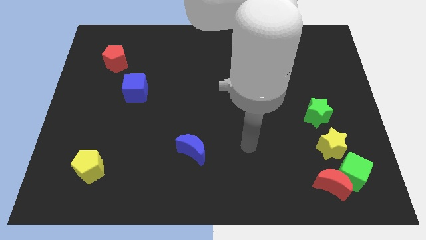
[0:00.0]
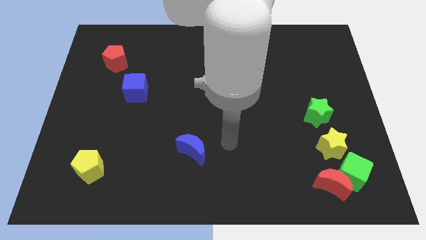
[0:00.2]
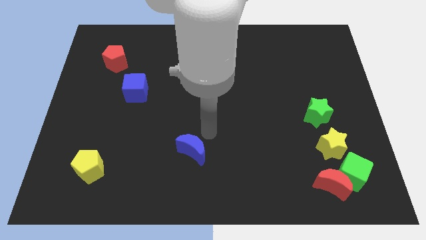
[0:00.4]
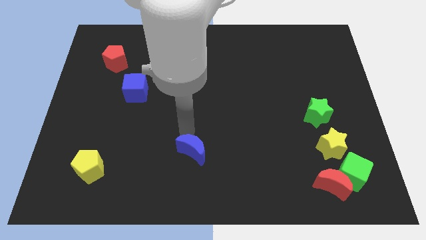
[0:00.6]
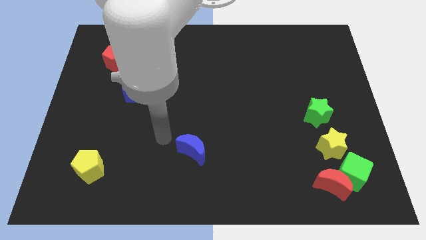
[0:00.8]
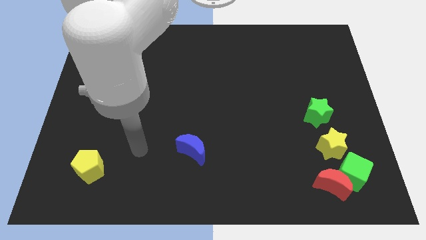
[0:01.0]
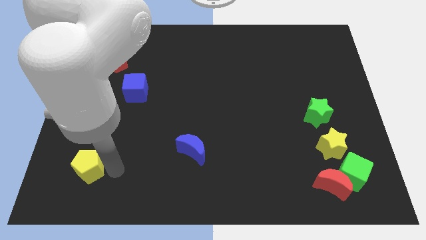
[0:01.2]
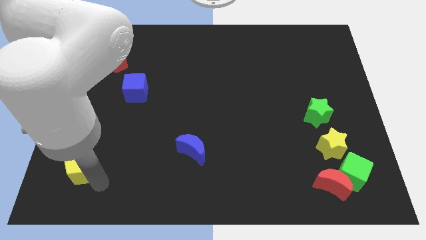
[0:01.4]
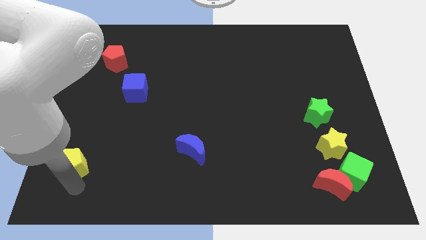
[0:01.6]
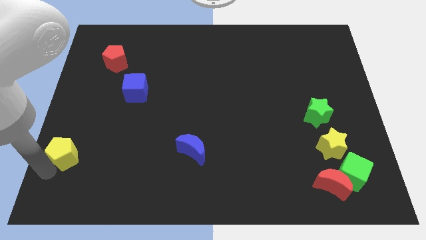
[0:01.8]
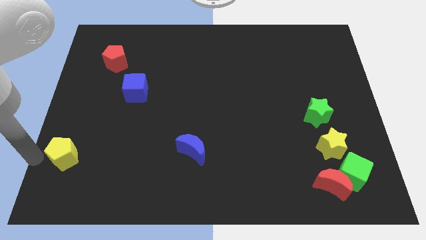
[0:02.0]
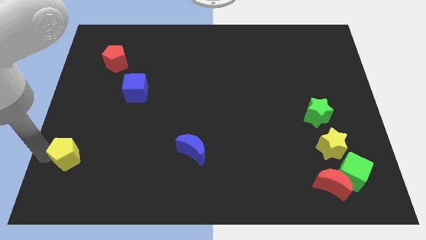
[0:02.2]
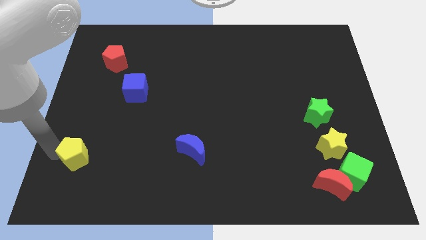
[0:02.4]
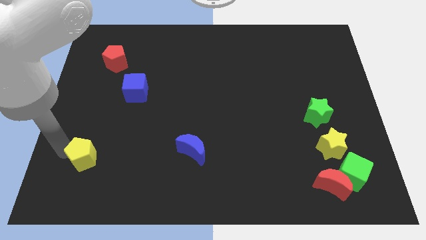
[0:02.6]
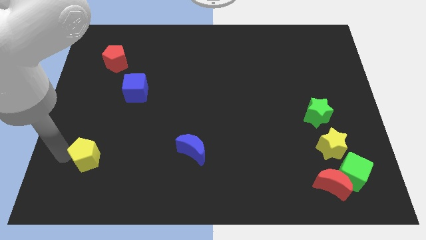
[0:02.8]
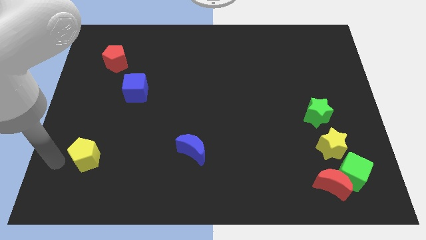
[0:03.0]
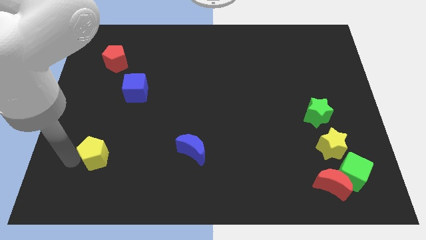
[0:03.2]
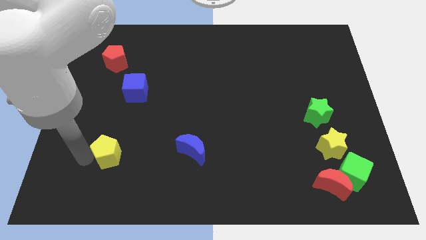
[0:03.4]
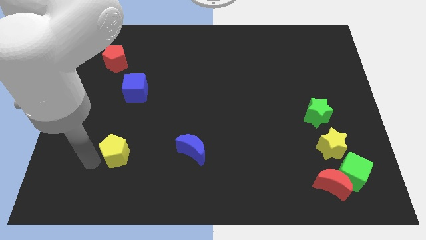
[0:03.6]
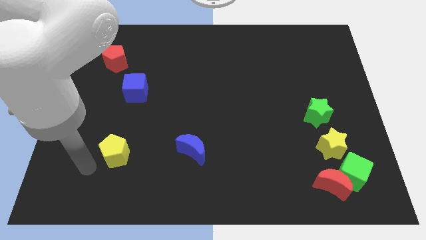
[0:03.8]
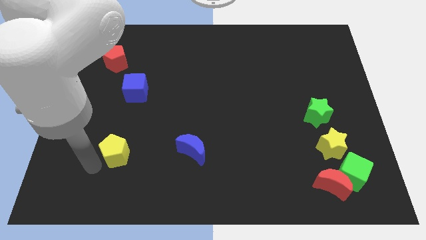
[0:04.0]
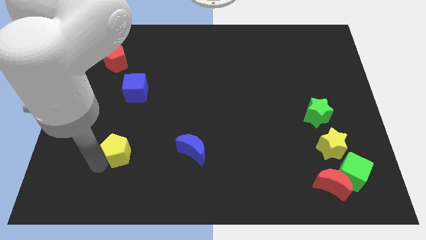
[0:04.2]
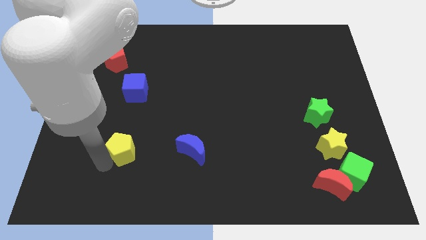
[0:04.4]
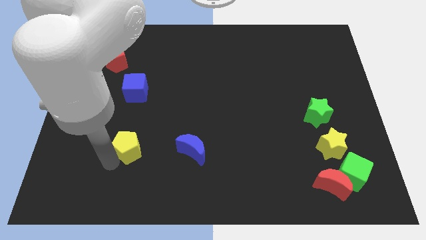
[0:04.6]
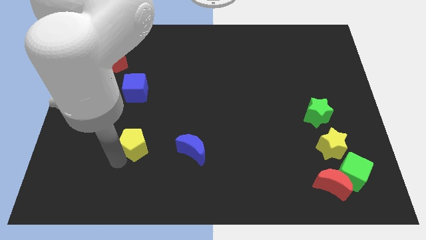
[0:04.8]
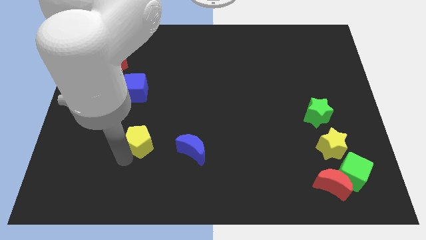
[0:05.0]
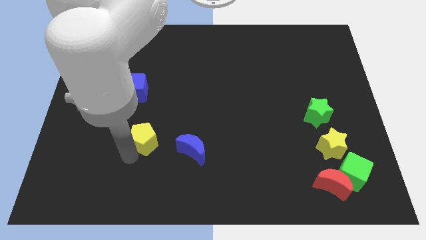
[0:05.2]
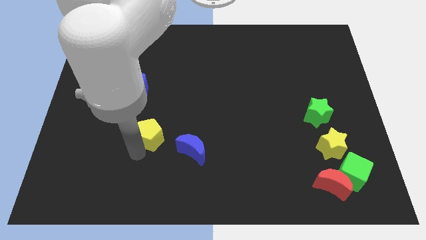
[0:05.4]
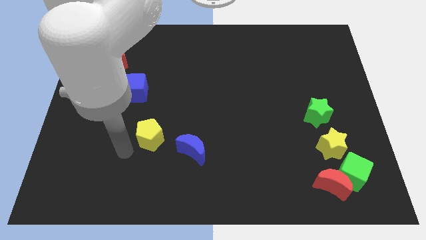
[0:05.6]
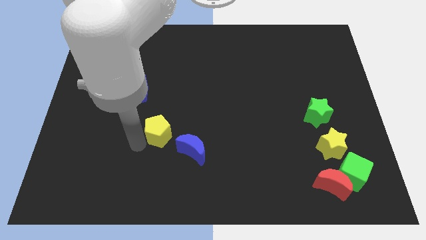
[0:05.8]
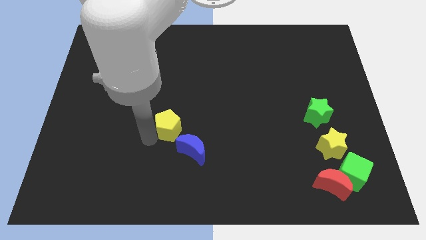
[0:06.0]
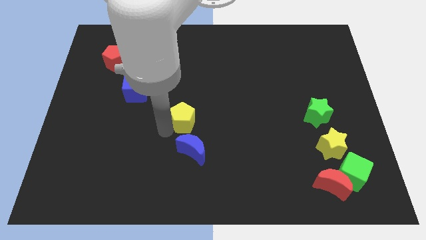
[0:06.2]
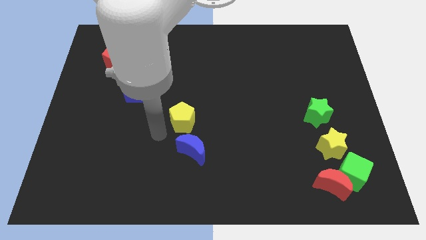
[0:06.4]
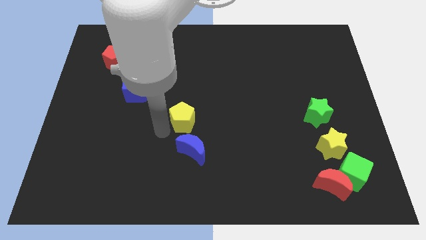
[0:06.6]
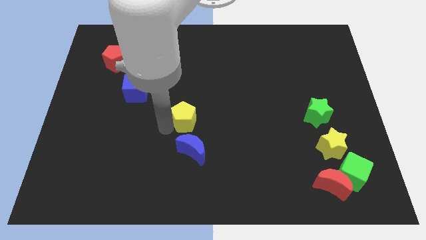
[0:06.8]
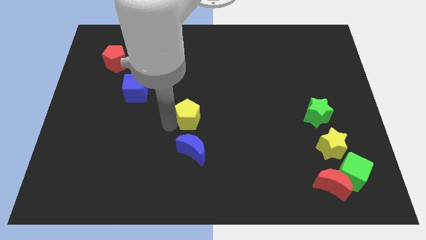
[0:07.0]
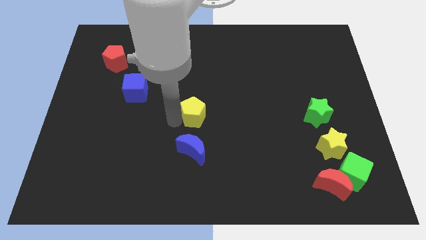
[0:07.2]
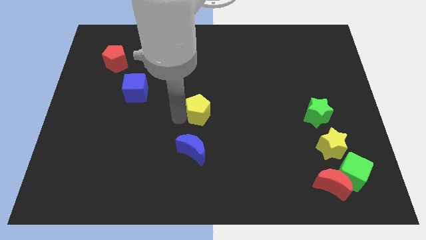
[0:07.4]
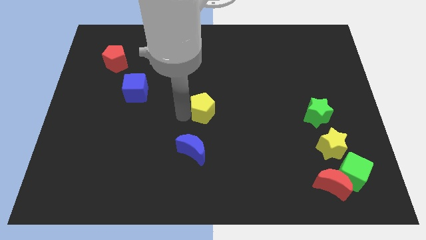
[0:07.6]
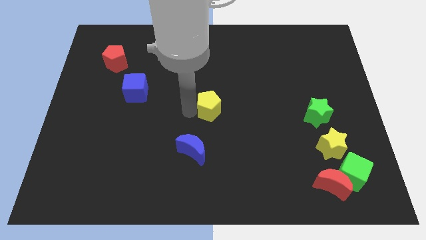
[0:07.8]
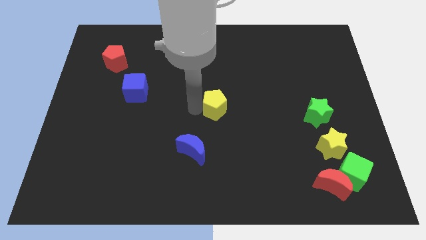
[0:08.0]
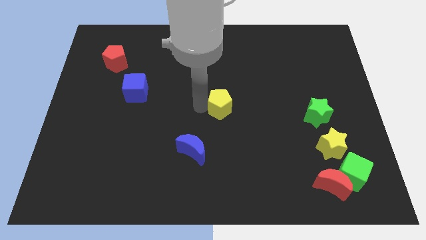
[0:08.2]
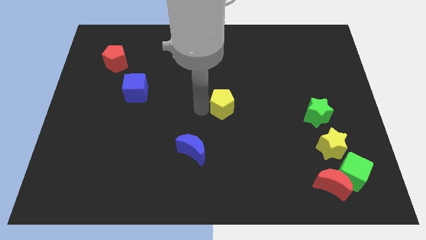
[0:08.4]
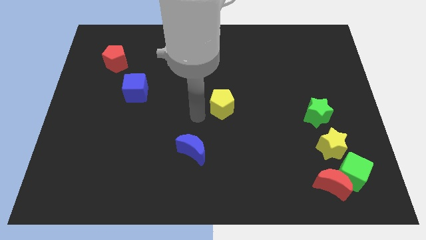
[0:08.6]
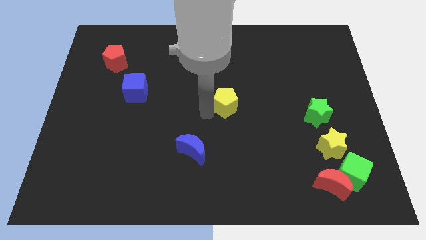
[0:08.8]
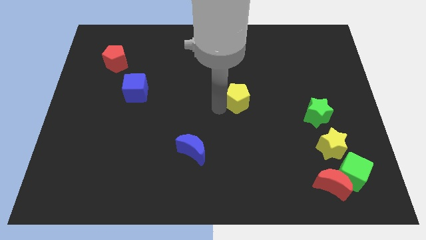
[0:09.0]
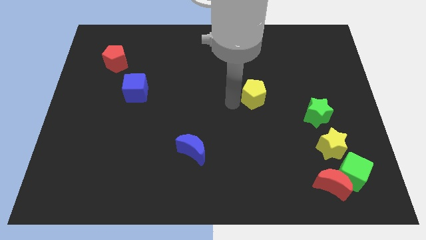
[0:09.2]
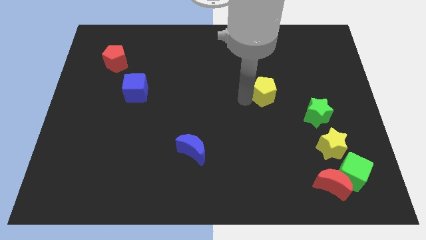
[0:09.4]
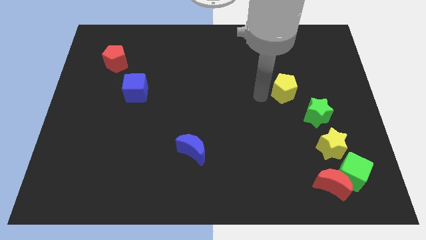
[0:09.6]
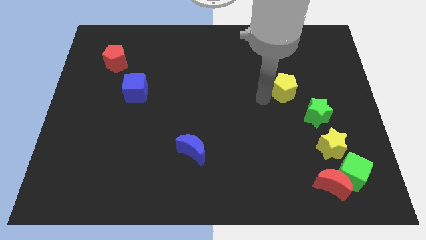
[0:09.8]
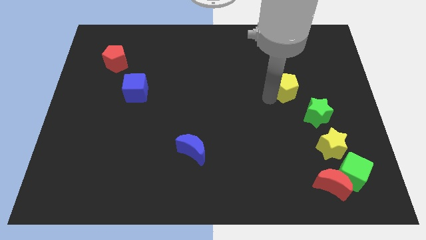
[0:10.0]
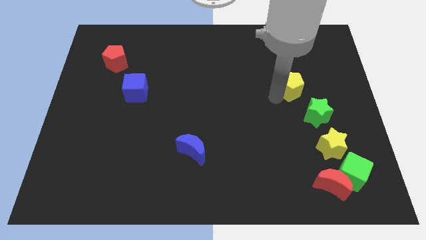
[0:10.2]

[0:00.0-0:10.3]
move the yellow pentagon to the top side of the green star

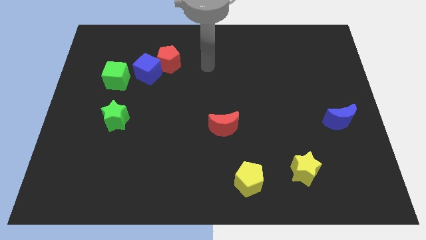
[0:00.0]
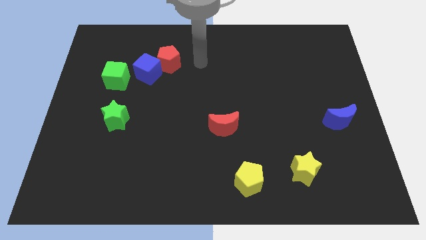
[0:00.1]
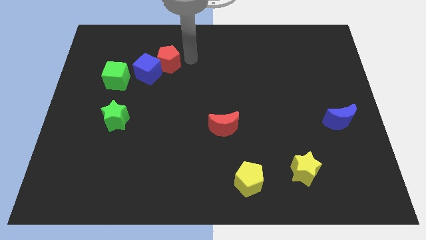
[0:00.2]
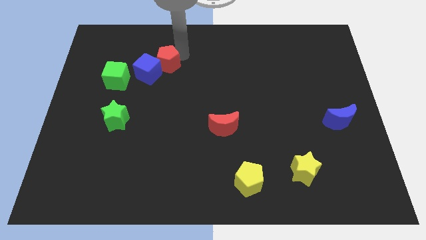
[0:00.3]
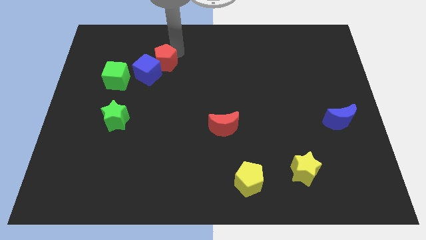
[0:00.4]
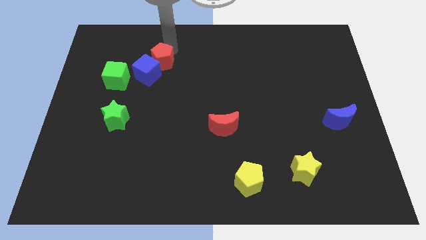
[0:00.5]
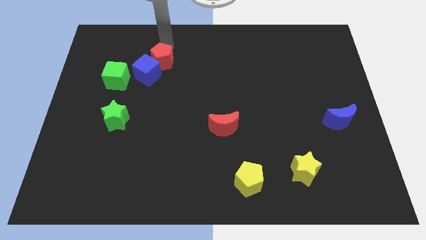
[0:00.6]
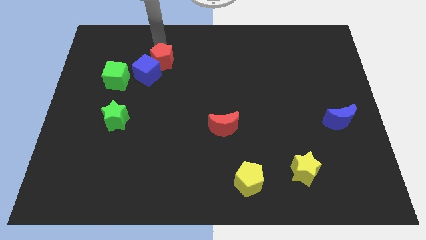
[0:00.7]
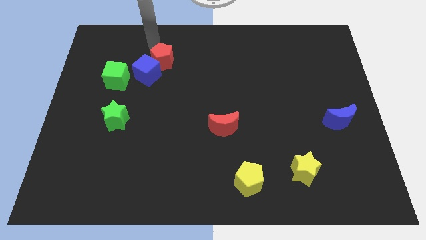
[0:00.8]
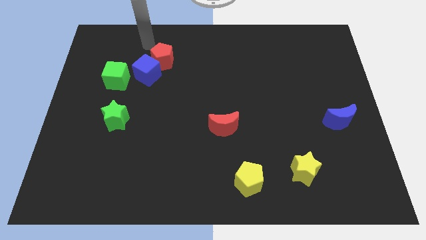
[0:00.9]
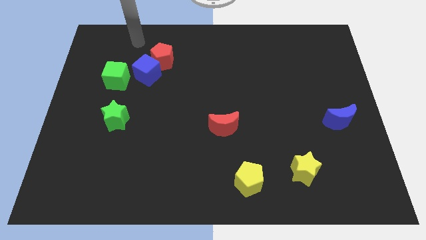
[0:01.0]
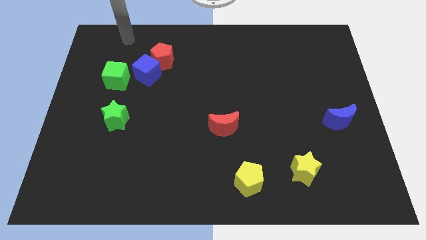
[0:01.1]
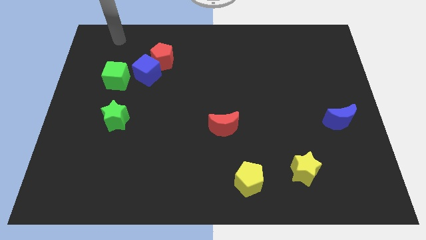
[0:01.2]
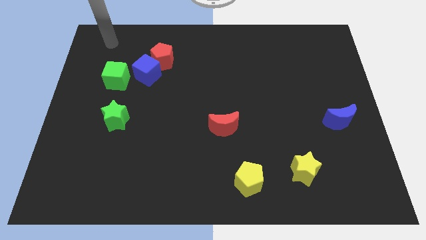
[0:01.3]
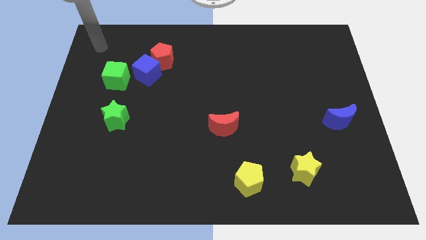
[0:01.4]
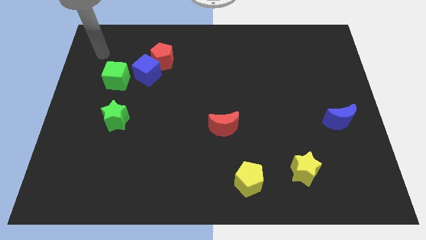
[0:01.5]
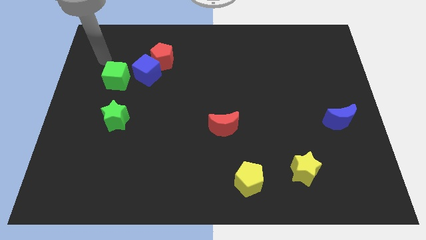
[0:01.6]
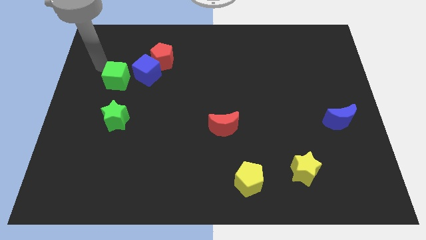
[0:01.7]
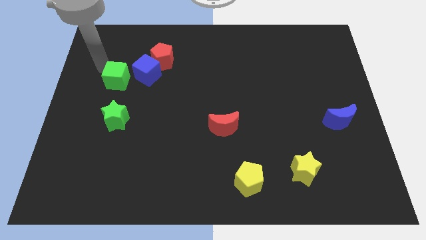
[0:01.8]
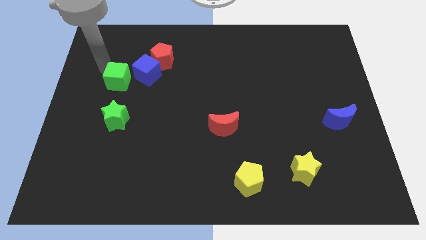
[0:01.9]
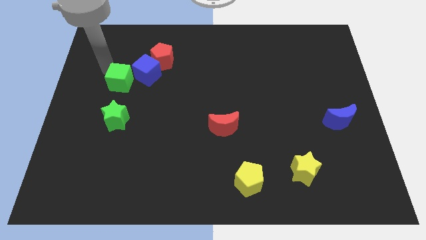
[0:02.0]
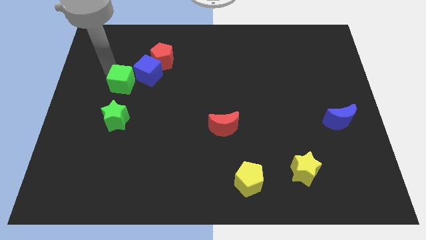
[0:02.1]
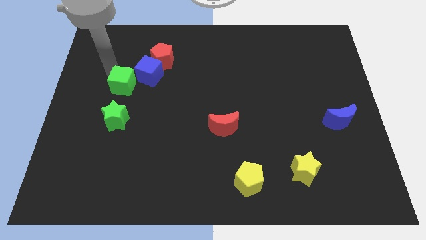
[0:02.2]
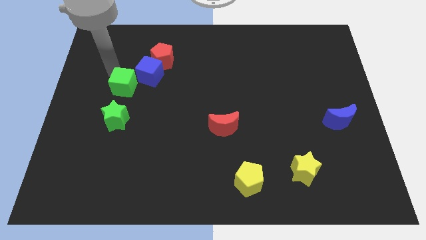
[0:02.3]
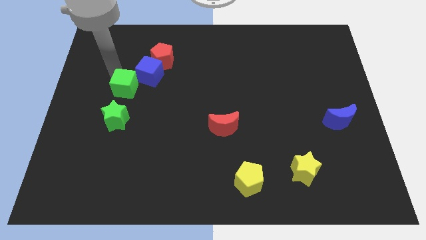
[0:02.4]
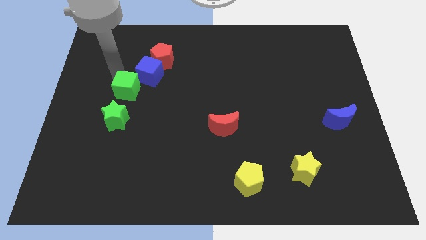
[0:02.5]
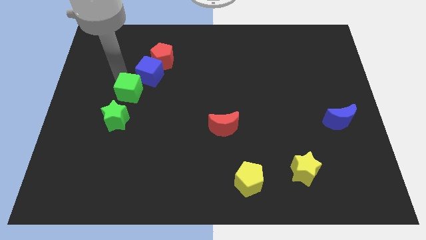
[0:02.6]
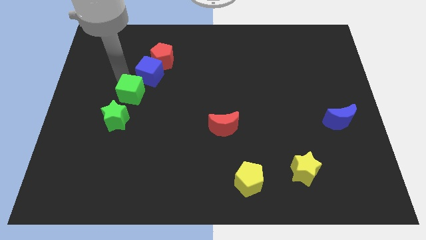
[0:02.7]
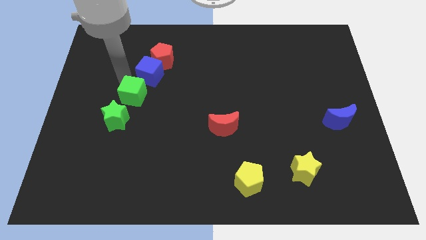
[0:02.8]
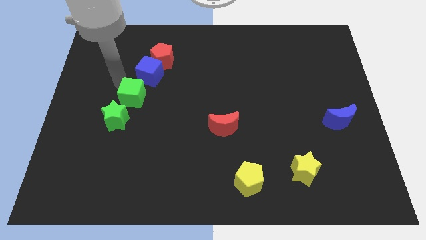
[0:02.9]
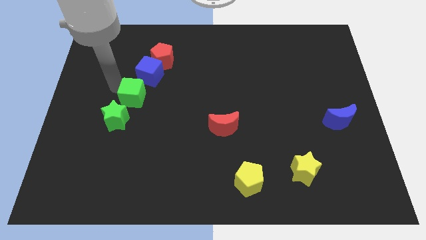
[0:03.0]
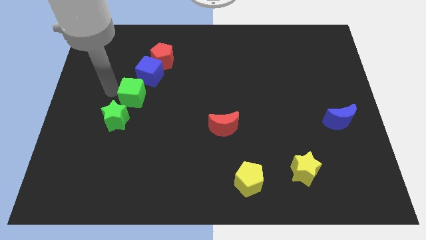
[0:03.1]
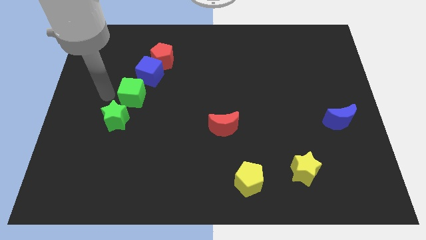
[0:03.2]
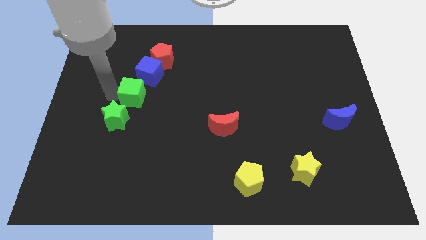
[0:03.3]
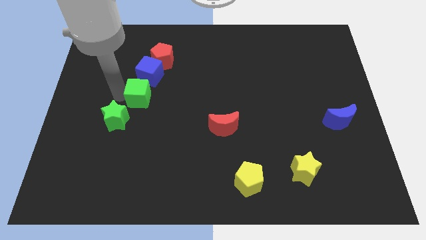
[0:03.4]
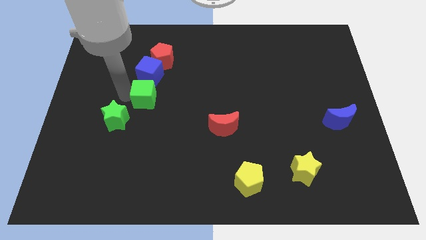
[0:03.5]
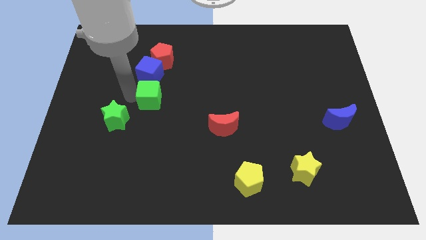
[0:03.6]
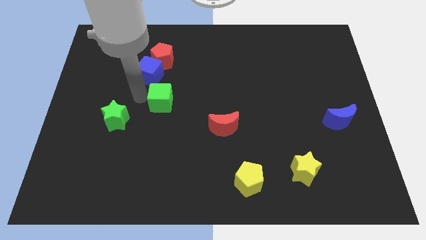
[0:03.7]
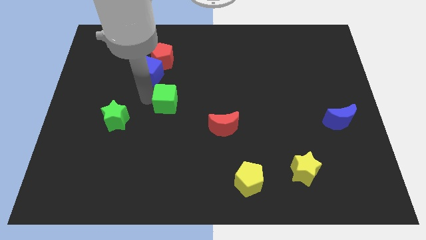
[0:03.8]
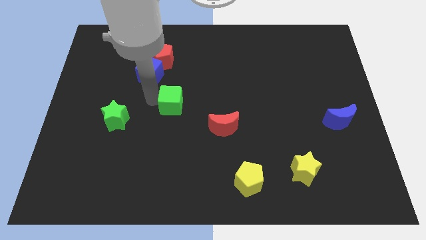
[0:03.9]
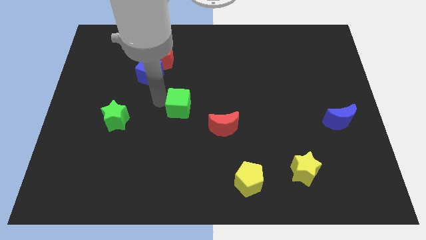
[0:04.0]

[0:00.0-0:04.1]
move the green cube diagonally up and to the left of the red moon
